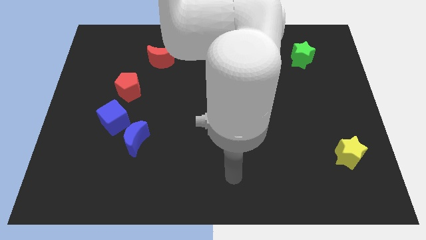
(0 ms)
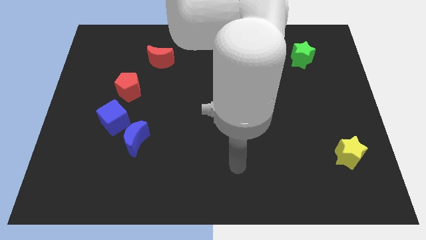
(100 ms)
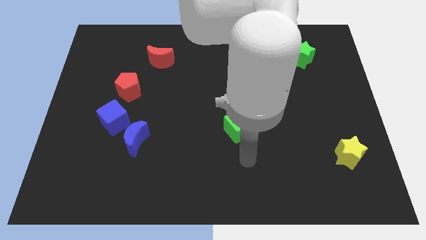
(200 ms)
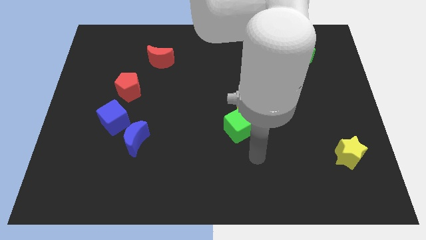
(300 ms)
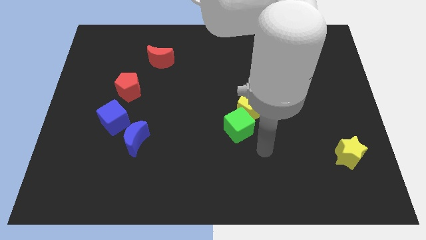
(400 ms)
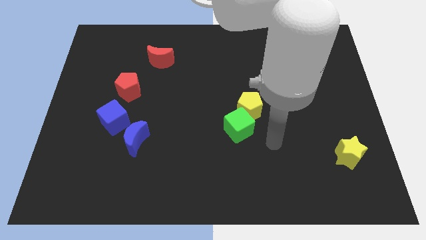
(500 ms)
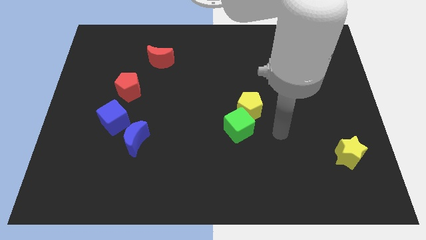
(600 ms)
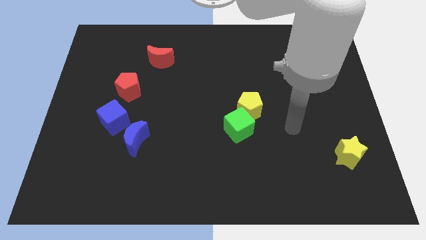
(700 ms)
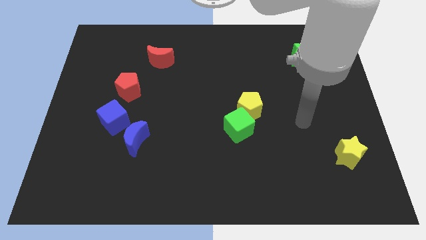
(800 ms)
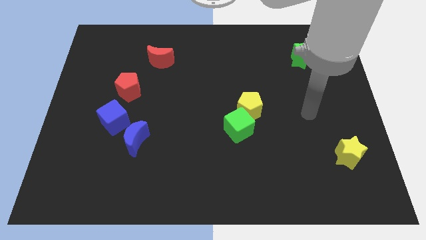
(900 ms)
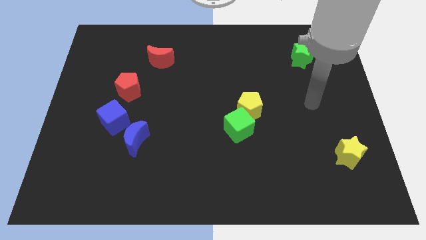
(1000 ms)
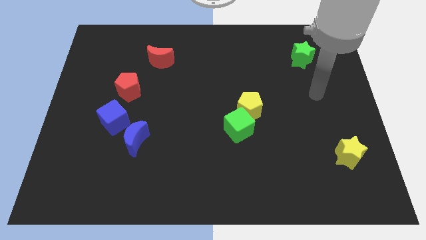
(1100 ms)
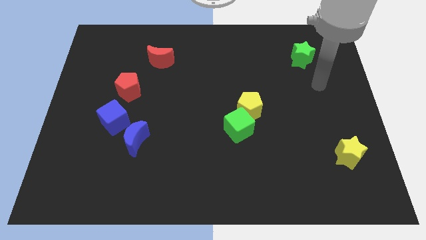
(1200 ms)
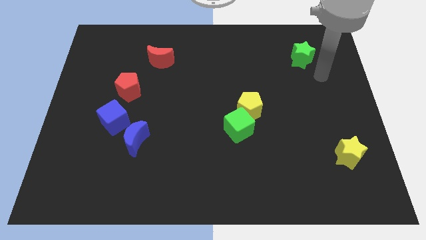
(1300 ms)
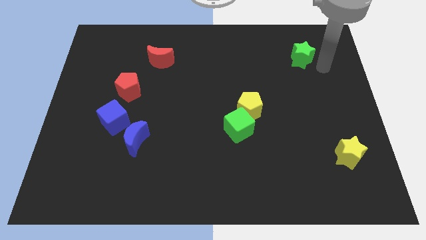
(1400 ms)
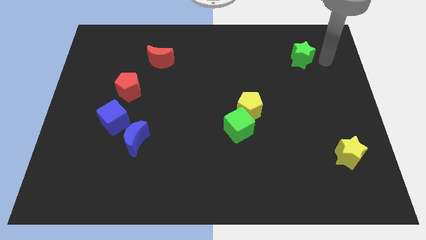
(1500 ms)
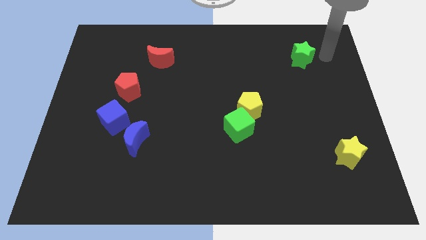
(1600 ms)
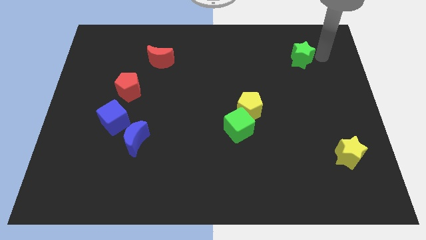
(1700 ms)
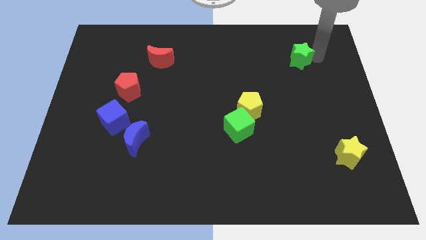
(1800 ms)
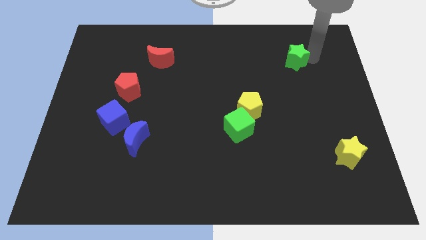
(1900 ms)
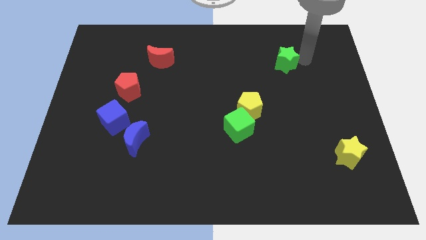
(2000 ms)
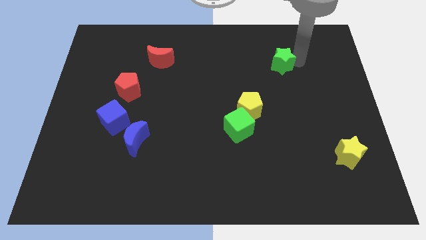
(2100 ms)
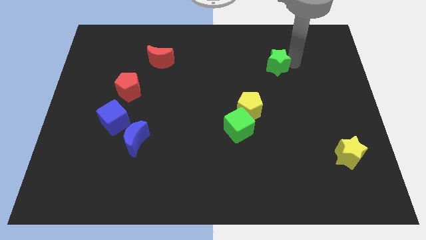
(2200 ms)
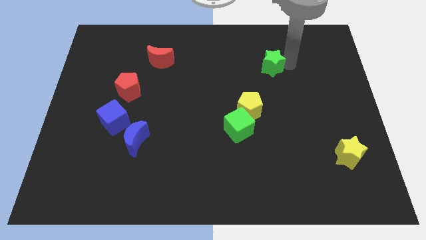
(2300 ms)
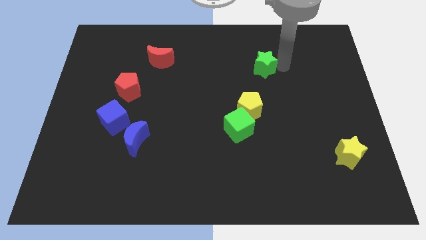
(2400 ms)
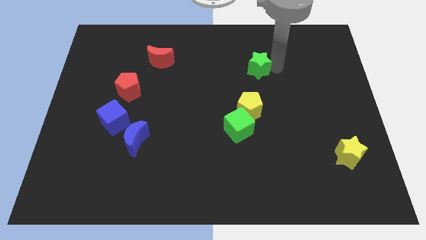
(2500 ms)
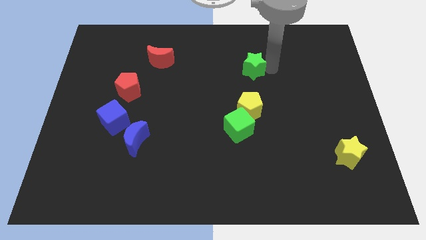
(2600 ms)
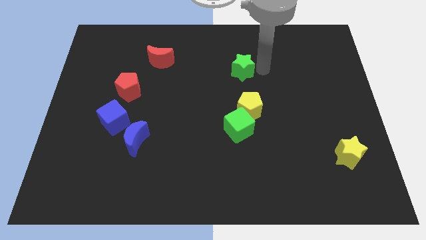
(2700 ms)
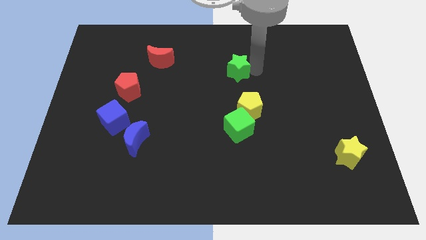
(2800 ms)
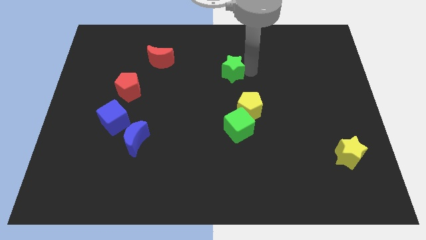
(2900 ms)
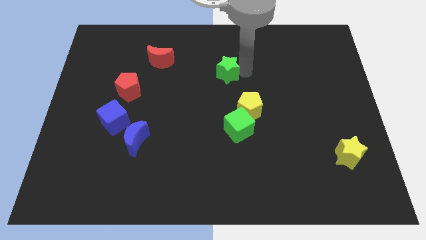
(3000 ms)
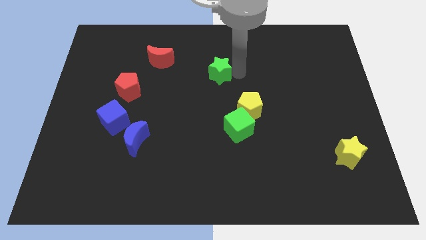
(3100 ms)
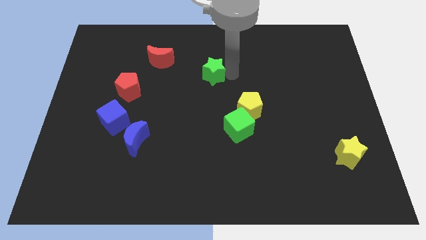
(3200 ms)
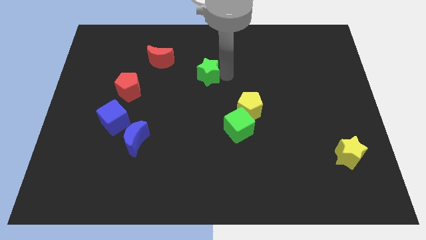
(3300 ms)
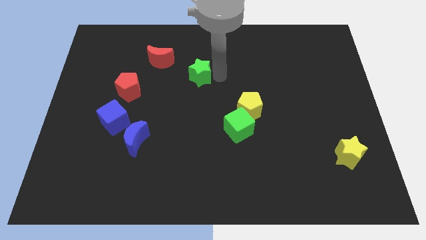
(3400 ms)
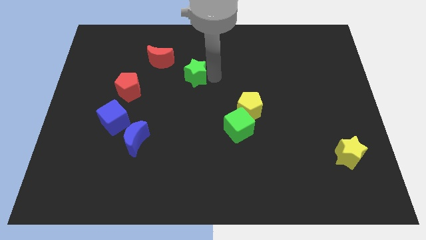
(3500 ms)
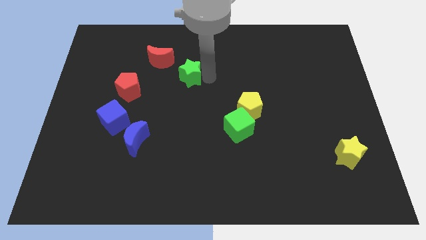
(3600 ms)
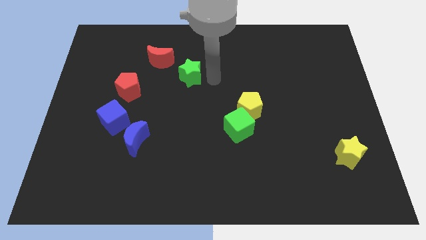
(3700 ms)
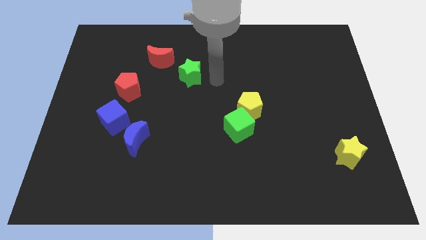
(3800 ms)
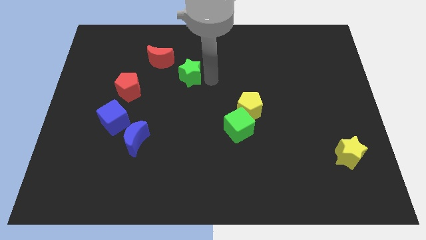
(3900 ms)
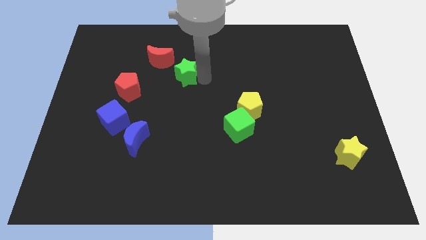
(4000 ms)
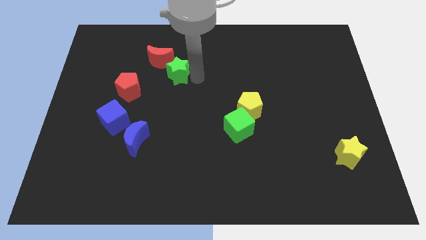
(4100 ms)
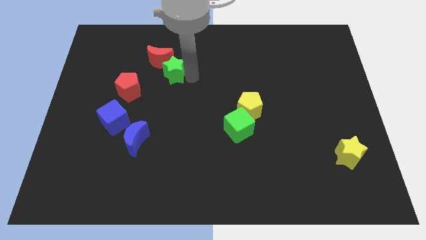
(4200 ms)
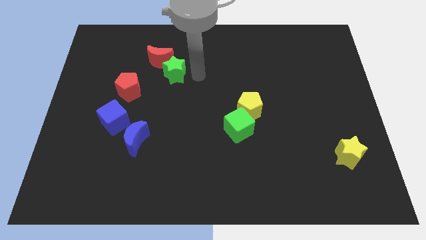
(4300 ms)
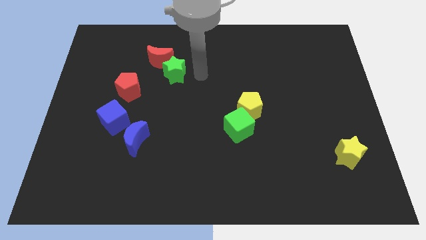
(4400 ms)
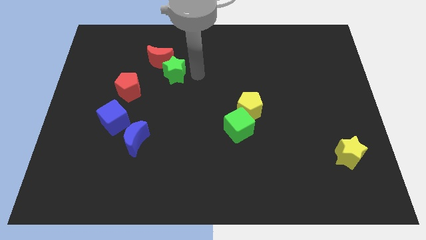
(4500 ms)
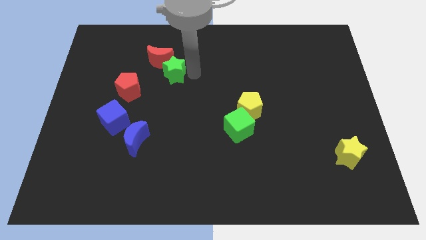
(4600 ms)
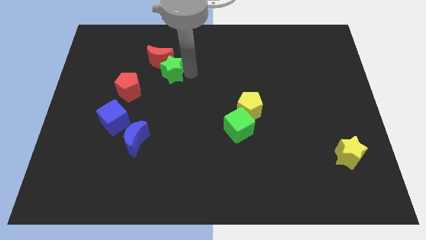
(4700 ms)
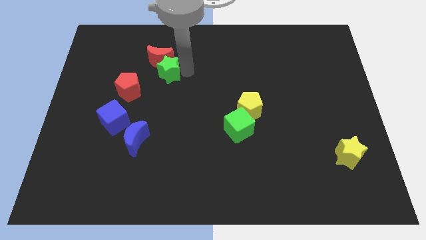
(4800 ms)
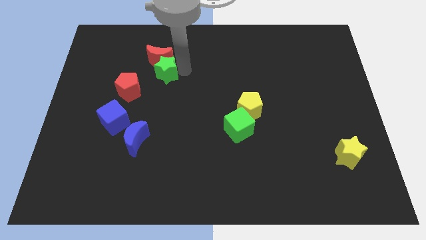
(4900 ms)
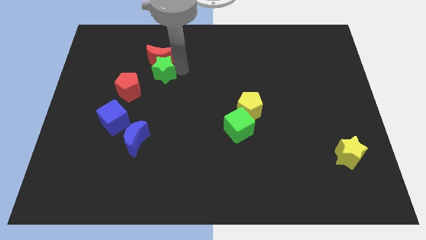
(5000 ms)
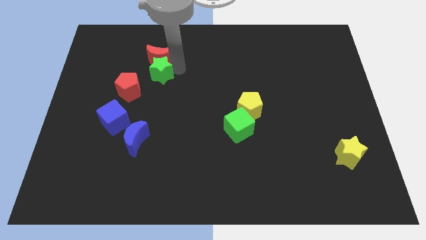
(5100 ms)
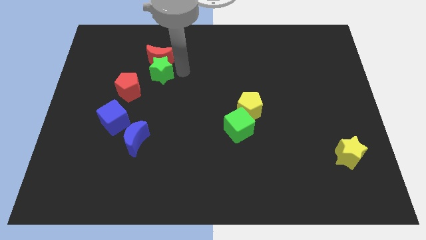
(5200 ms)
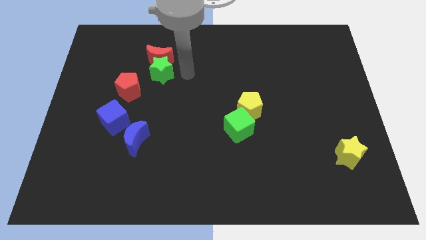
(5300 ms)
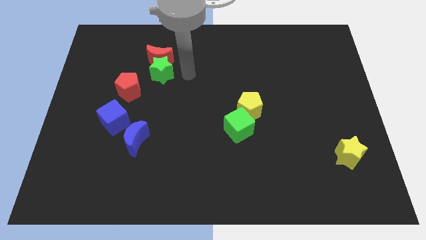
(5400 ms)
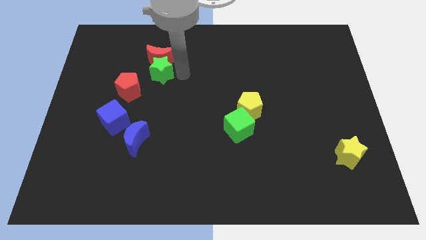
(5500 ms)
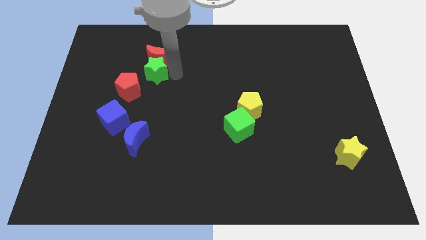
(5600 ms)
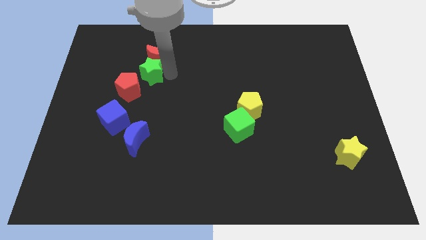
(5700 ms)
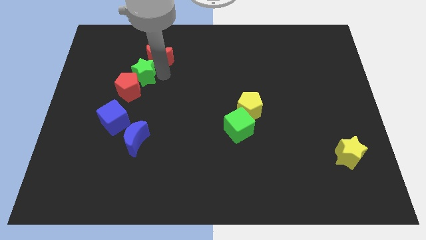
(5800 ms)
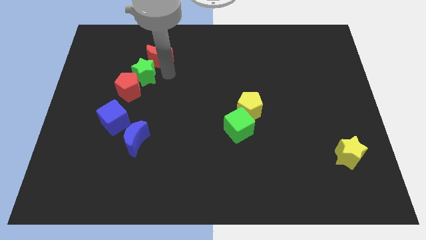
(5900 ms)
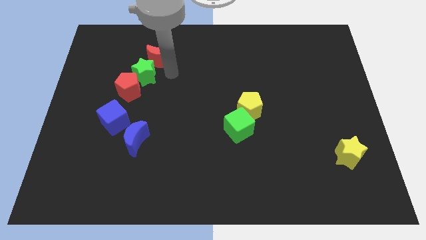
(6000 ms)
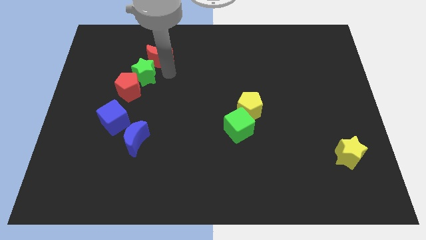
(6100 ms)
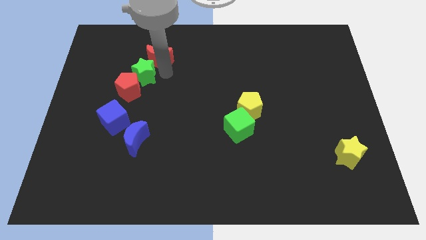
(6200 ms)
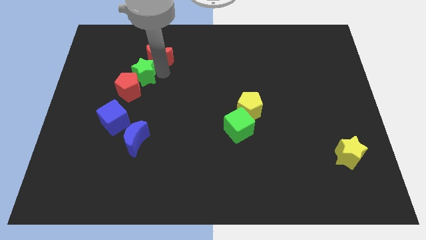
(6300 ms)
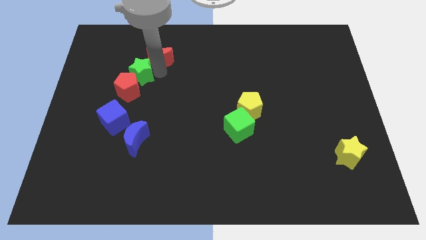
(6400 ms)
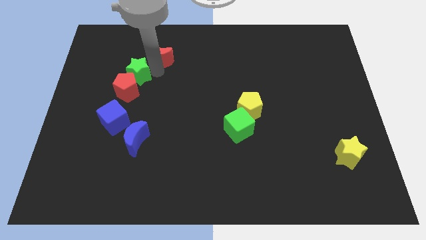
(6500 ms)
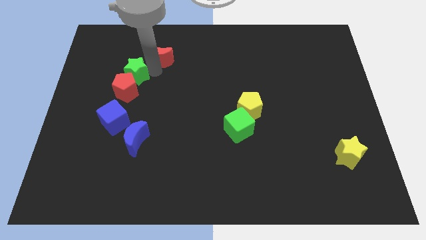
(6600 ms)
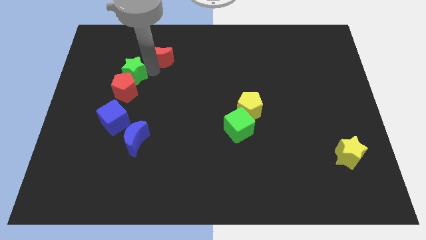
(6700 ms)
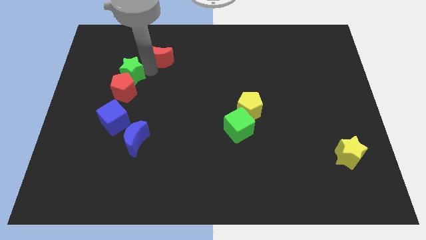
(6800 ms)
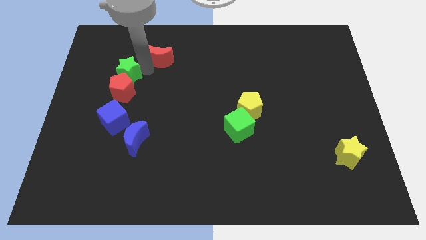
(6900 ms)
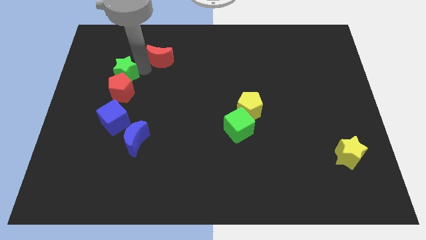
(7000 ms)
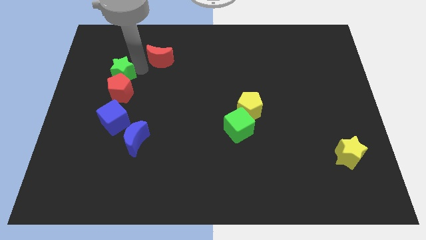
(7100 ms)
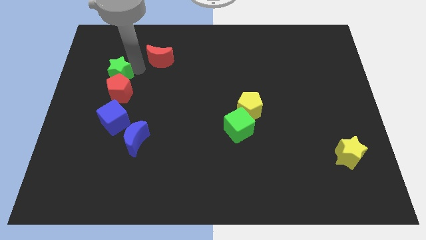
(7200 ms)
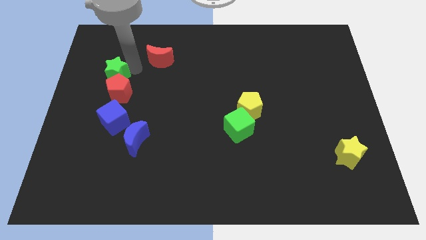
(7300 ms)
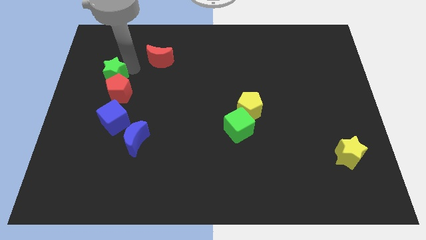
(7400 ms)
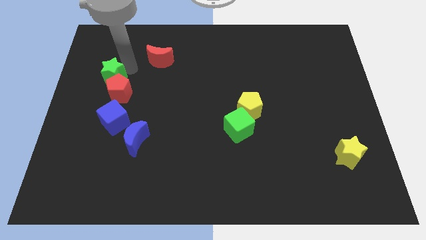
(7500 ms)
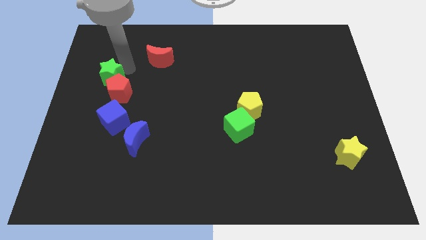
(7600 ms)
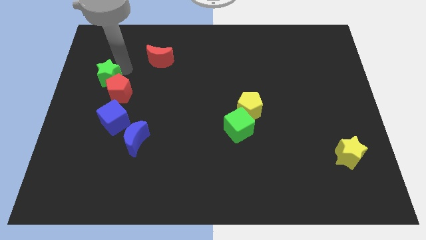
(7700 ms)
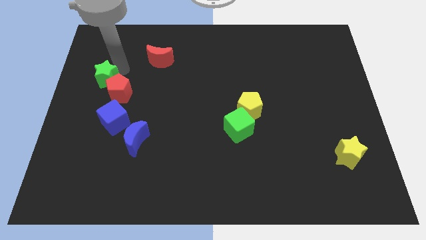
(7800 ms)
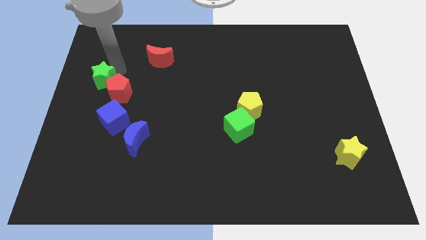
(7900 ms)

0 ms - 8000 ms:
push the green star to the center left
